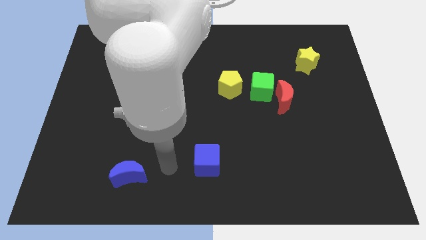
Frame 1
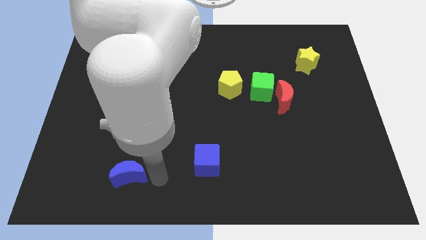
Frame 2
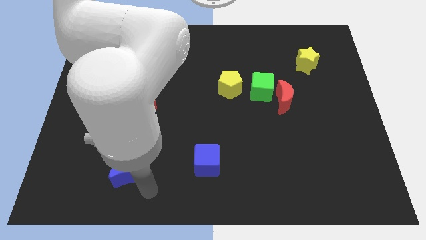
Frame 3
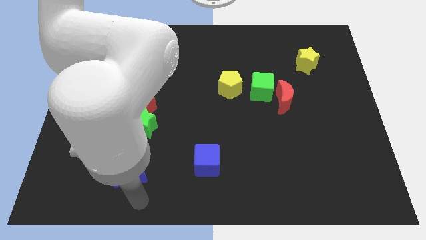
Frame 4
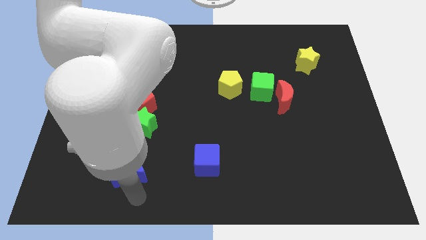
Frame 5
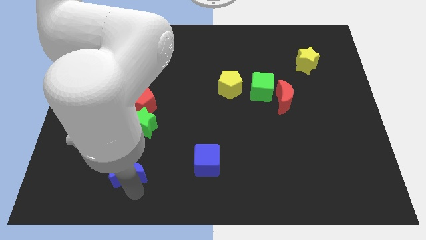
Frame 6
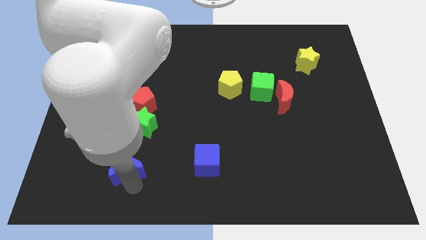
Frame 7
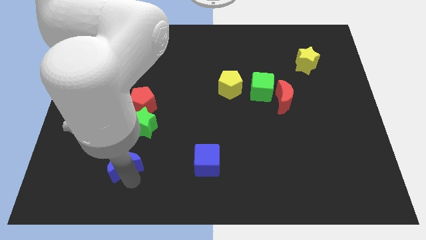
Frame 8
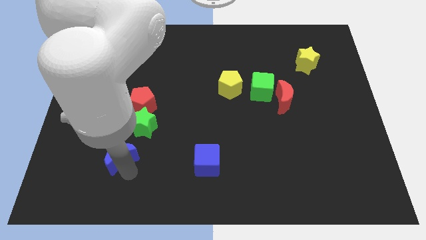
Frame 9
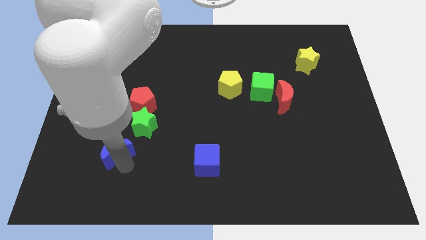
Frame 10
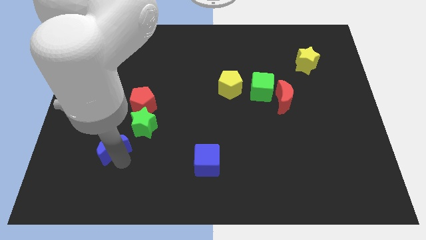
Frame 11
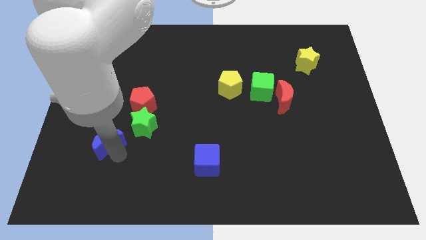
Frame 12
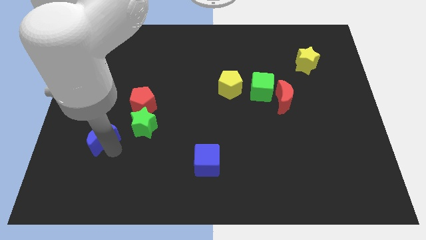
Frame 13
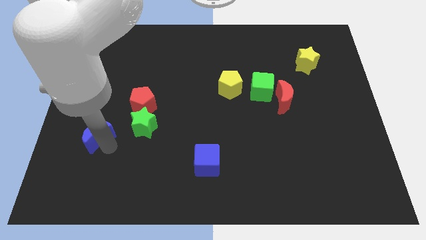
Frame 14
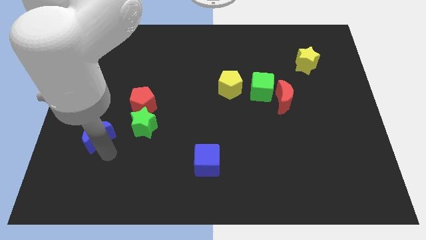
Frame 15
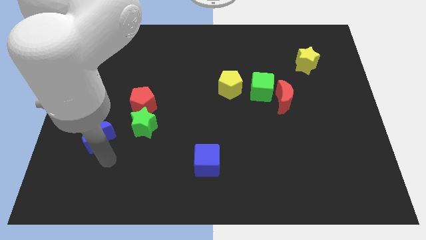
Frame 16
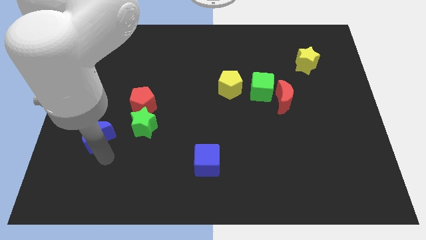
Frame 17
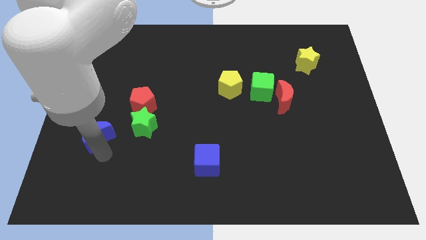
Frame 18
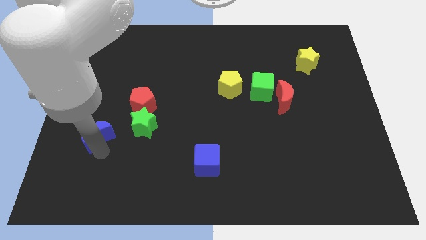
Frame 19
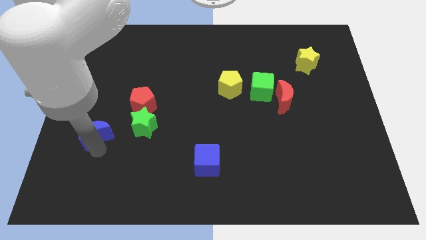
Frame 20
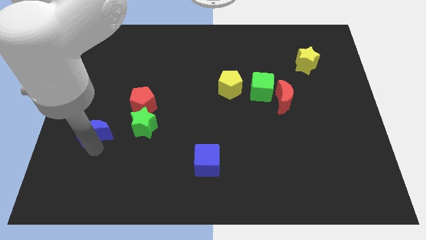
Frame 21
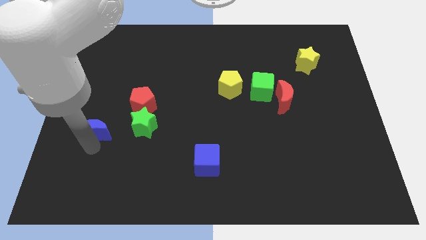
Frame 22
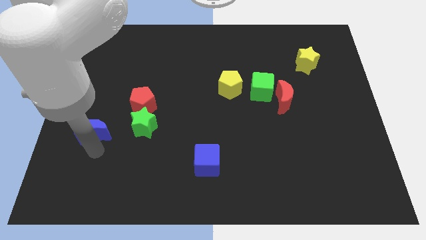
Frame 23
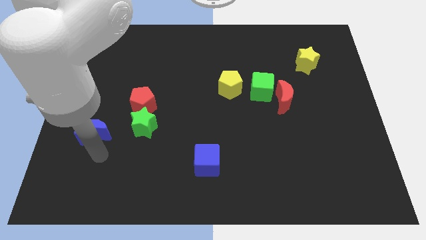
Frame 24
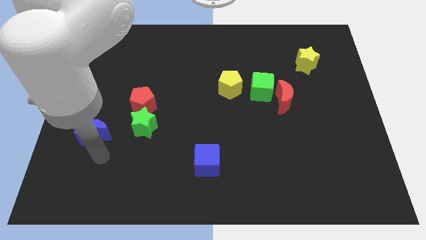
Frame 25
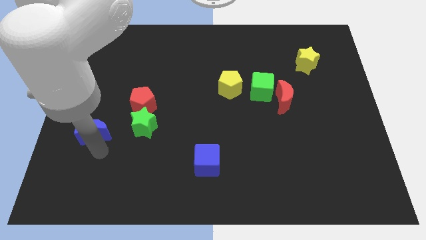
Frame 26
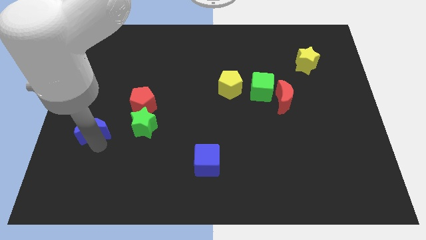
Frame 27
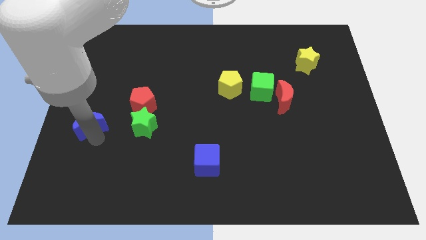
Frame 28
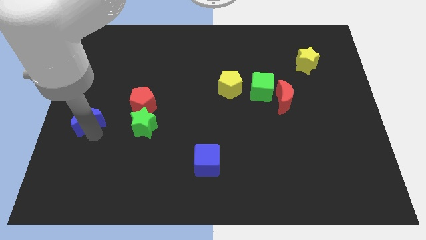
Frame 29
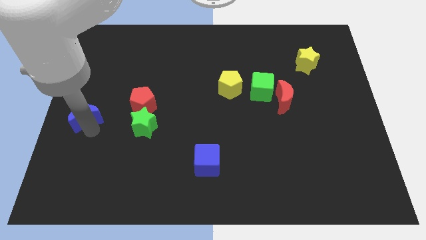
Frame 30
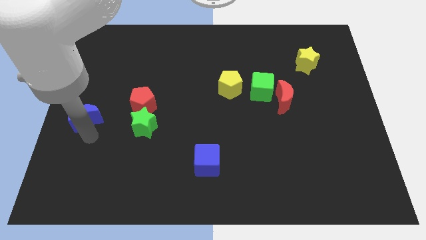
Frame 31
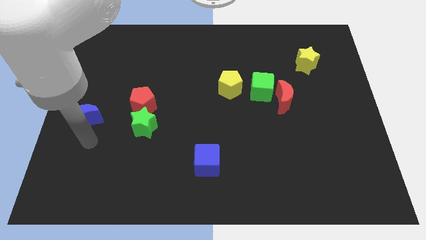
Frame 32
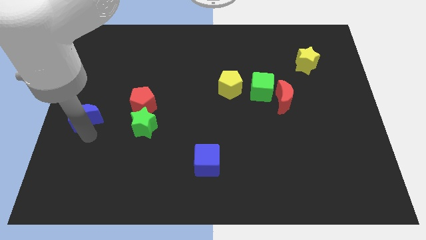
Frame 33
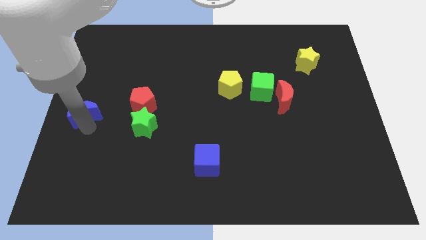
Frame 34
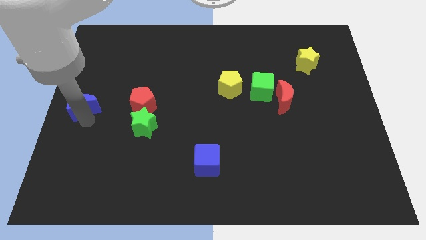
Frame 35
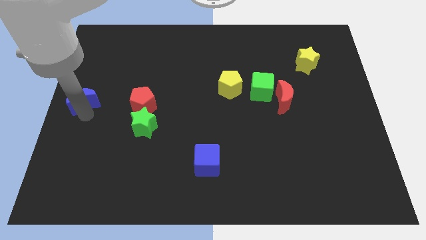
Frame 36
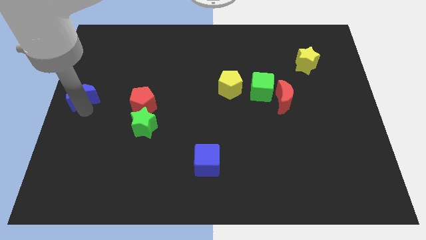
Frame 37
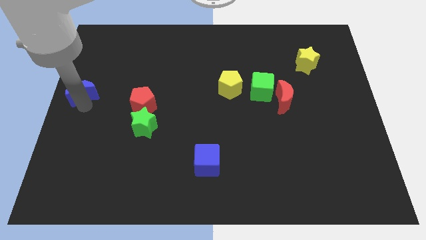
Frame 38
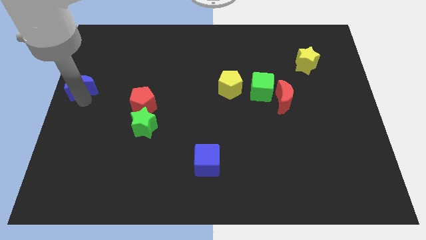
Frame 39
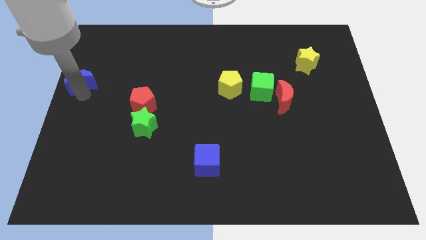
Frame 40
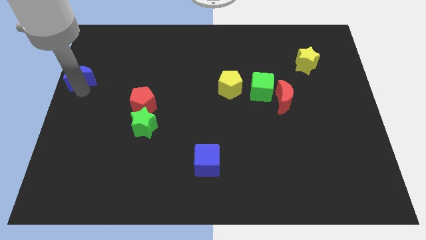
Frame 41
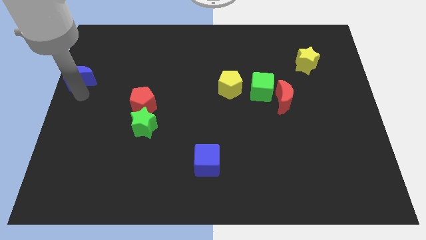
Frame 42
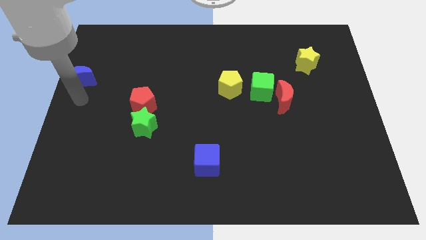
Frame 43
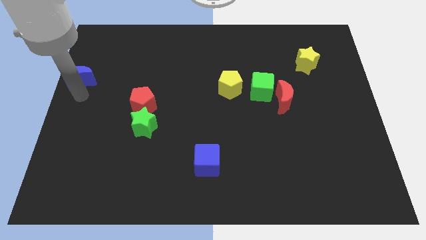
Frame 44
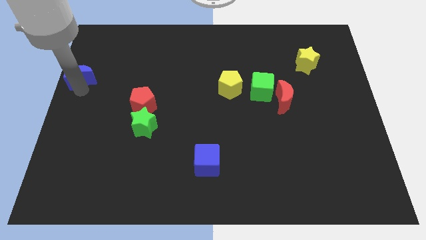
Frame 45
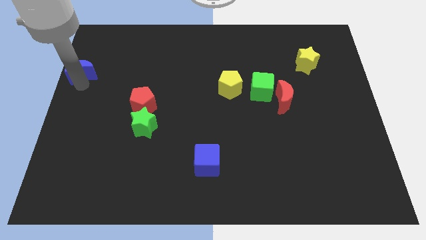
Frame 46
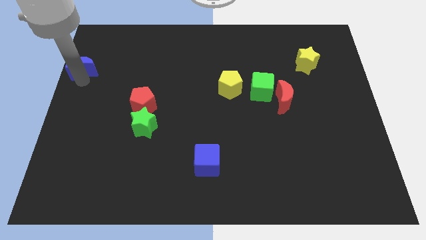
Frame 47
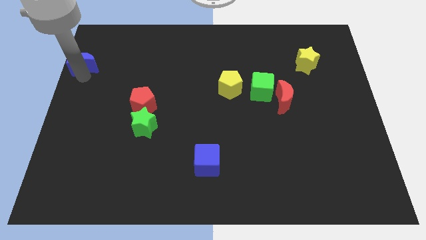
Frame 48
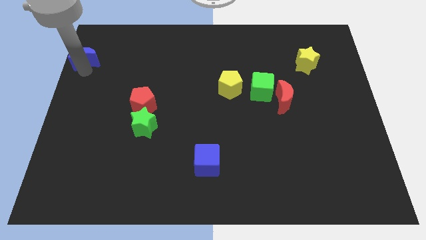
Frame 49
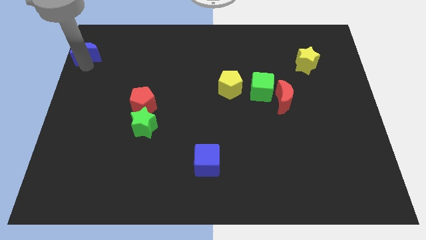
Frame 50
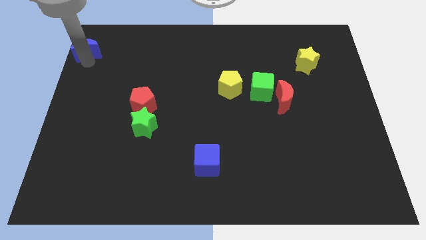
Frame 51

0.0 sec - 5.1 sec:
slide the blue moon to the top left corner
